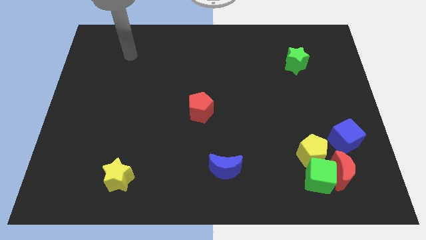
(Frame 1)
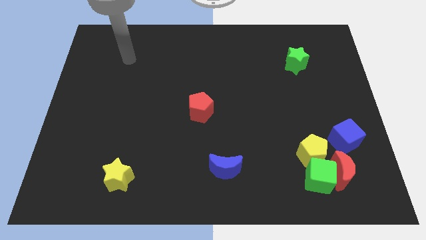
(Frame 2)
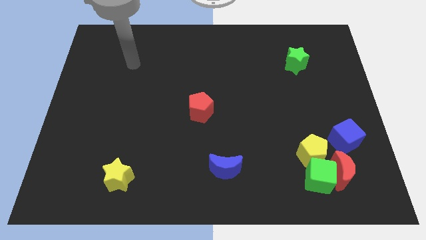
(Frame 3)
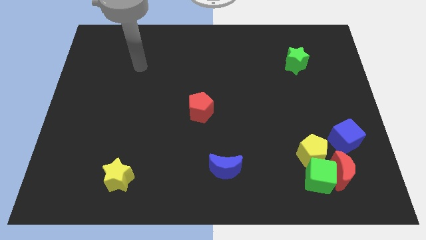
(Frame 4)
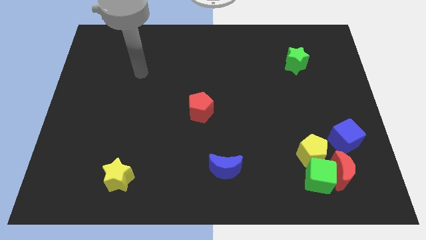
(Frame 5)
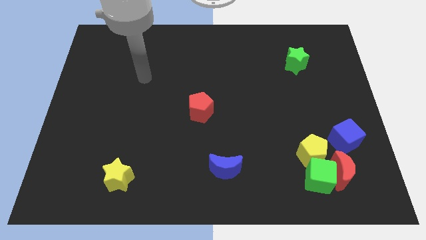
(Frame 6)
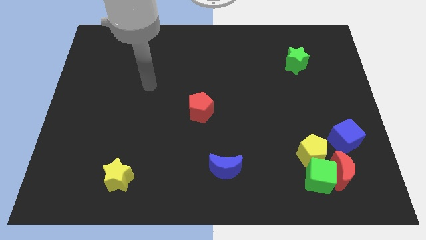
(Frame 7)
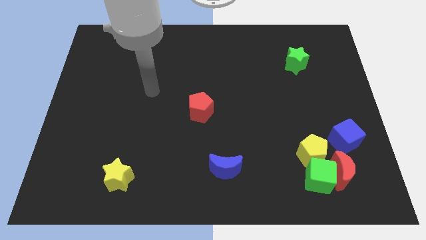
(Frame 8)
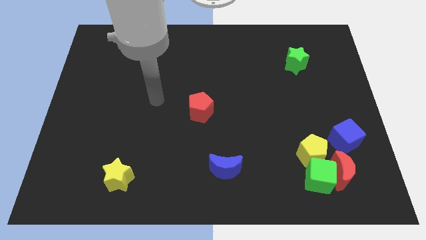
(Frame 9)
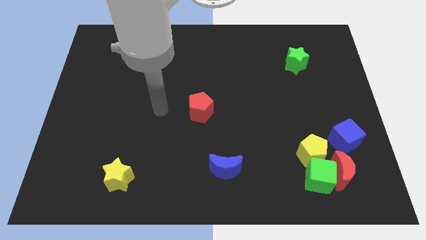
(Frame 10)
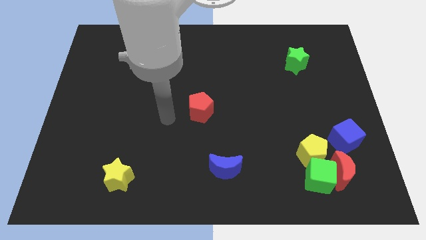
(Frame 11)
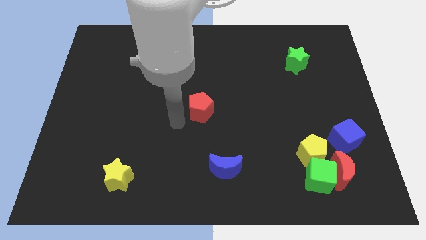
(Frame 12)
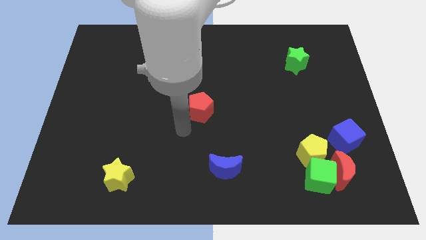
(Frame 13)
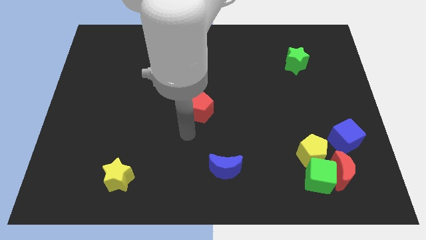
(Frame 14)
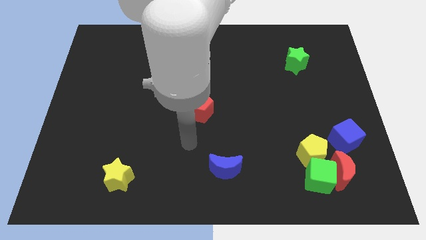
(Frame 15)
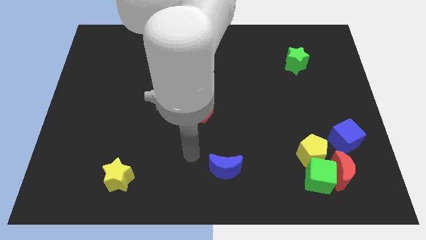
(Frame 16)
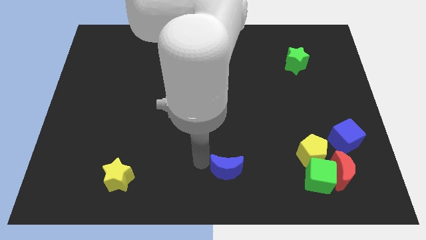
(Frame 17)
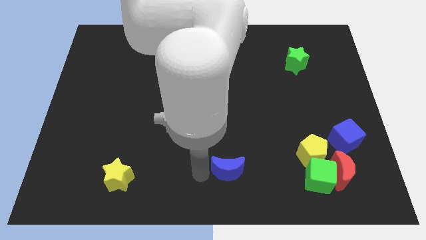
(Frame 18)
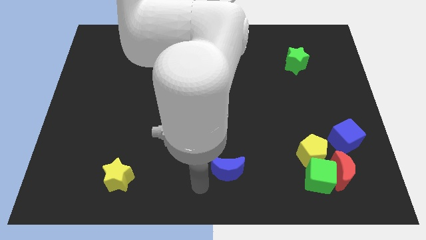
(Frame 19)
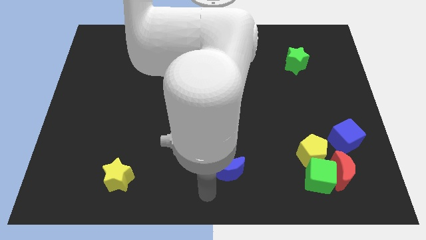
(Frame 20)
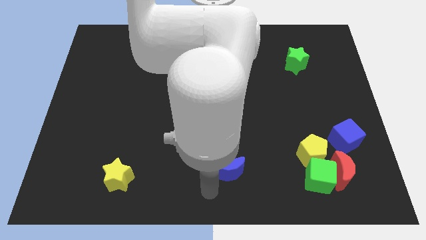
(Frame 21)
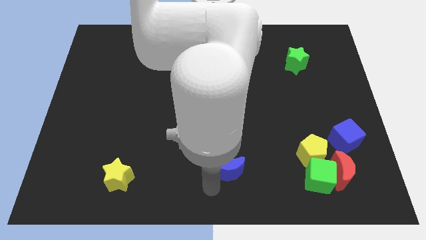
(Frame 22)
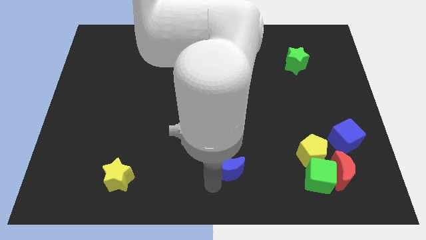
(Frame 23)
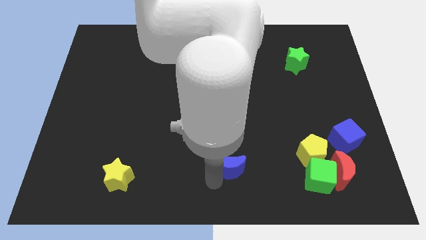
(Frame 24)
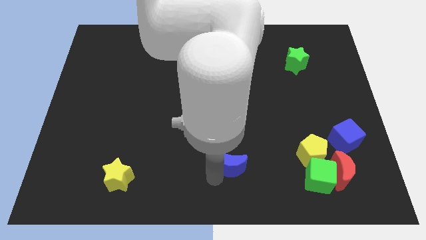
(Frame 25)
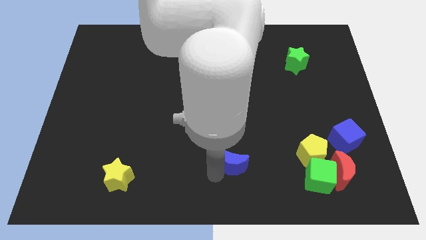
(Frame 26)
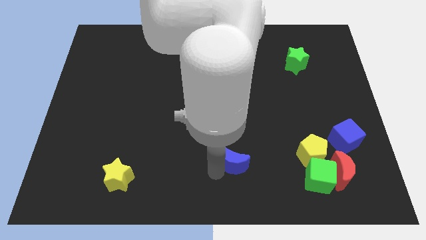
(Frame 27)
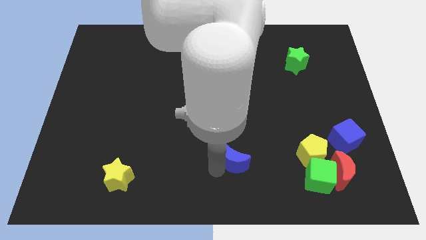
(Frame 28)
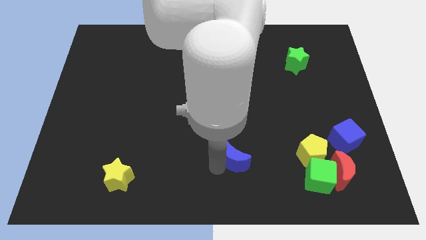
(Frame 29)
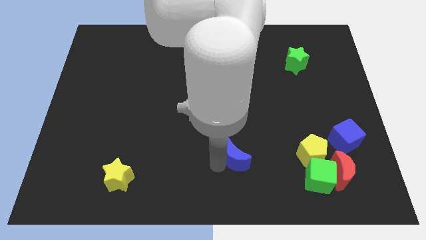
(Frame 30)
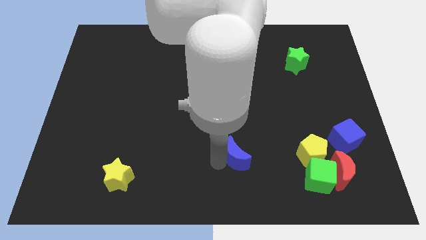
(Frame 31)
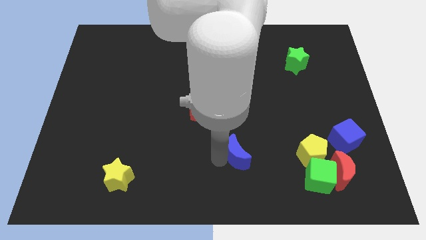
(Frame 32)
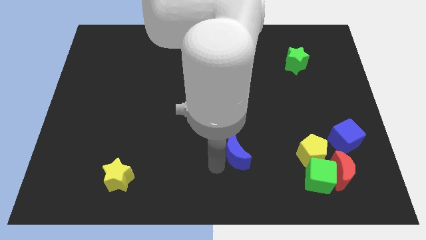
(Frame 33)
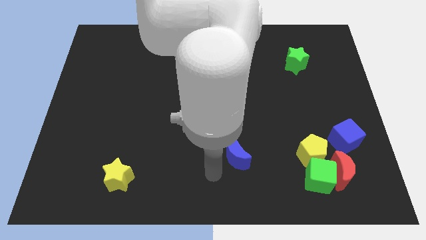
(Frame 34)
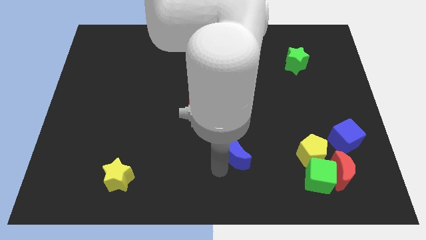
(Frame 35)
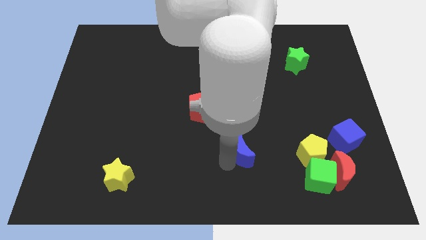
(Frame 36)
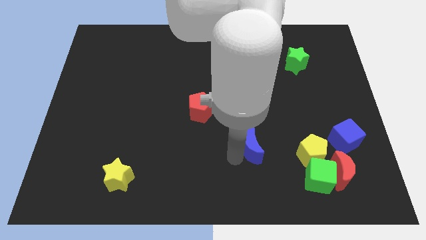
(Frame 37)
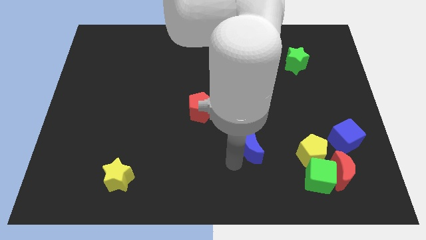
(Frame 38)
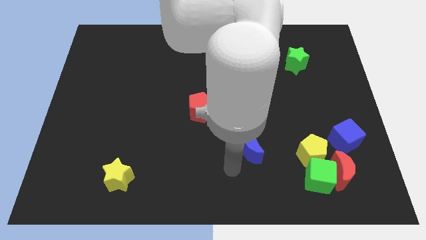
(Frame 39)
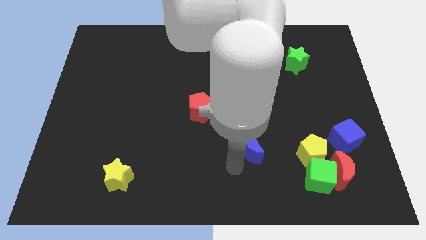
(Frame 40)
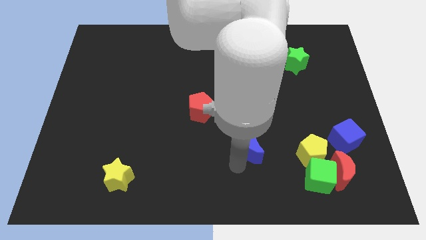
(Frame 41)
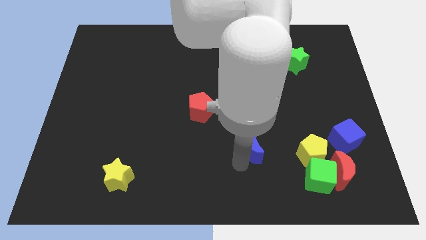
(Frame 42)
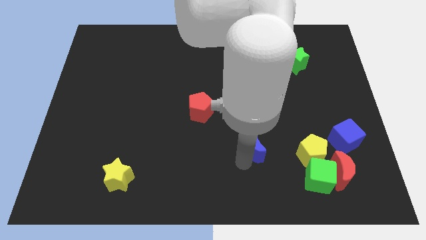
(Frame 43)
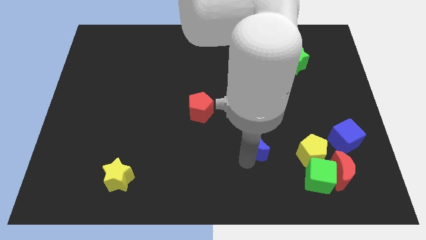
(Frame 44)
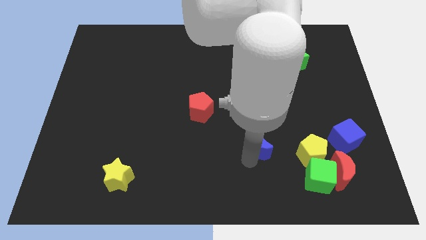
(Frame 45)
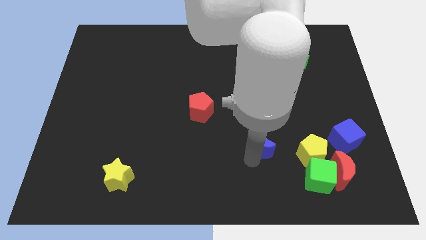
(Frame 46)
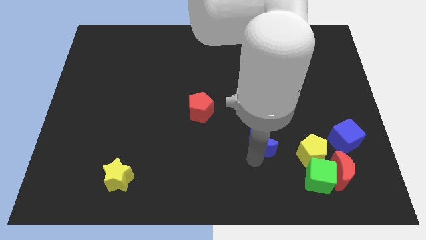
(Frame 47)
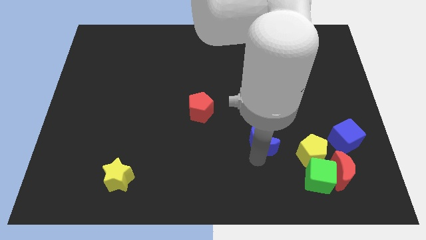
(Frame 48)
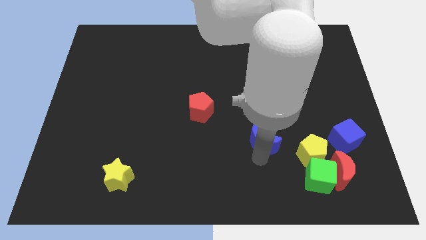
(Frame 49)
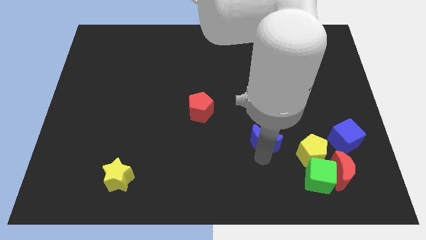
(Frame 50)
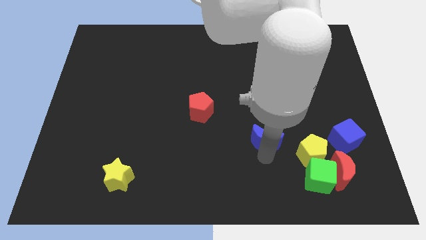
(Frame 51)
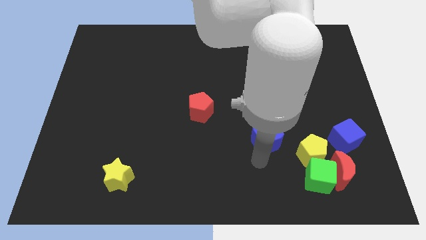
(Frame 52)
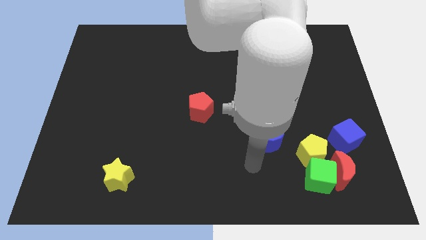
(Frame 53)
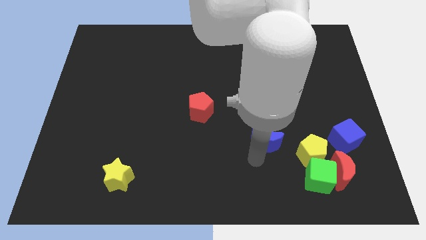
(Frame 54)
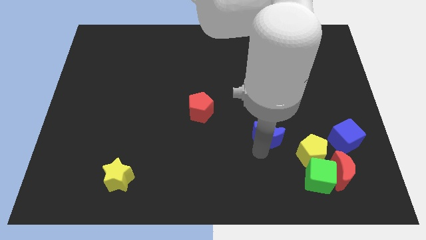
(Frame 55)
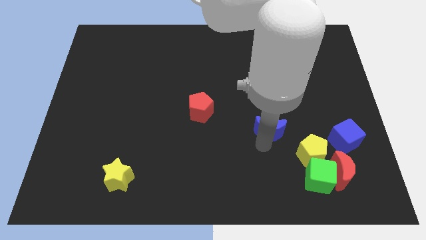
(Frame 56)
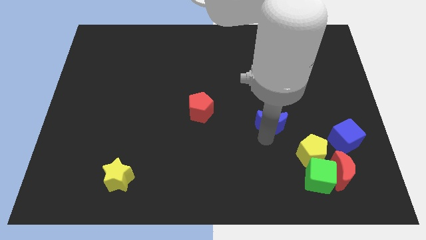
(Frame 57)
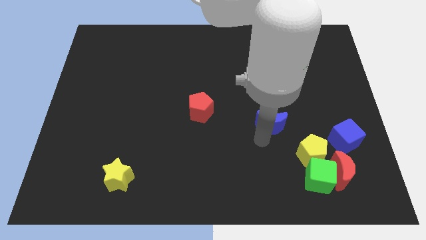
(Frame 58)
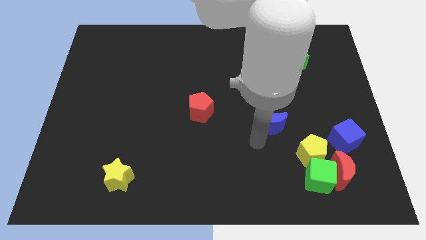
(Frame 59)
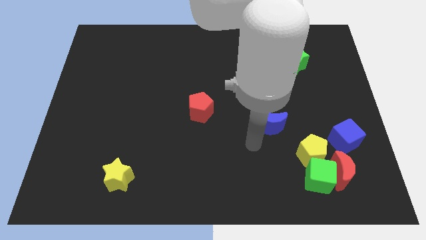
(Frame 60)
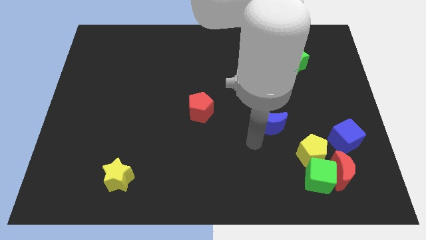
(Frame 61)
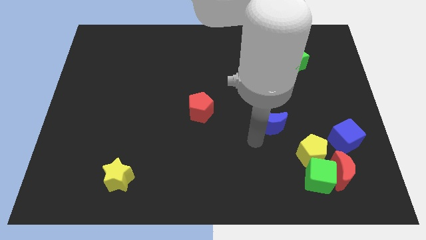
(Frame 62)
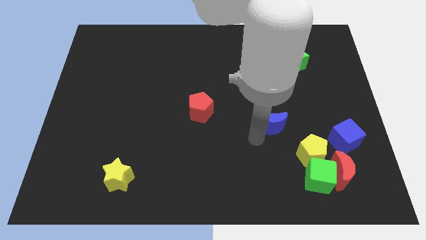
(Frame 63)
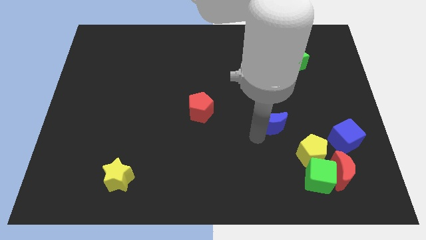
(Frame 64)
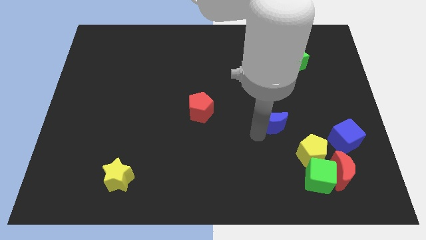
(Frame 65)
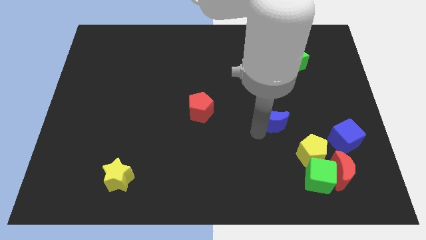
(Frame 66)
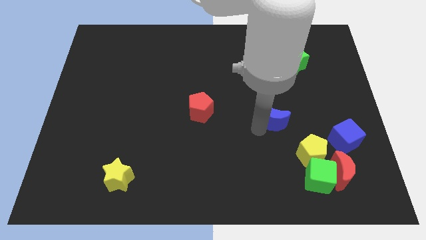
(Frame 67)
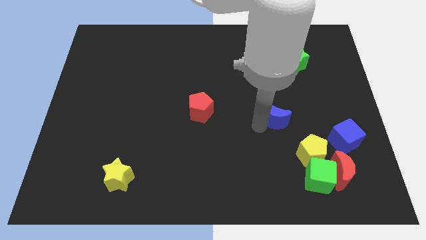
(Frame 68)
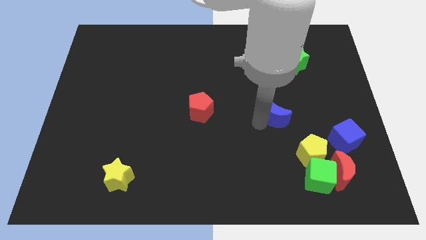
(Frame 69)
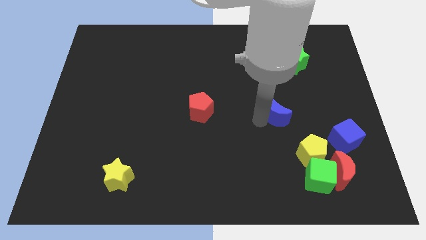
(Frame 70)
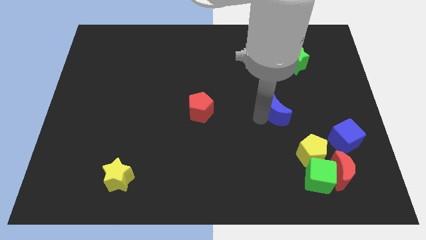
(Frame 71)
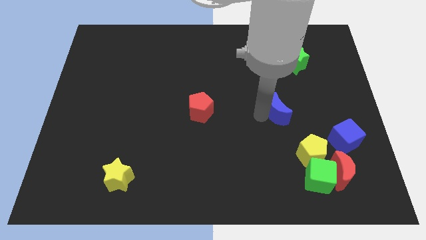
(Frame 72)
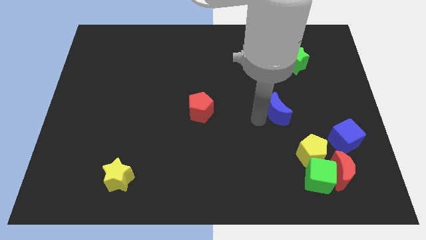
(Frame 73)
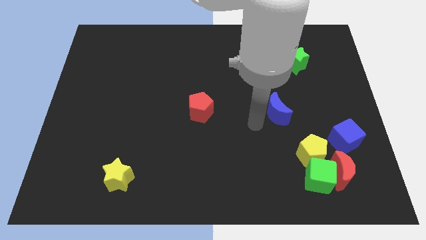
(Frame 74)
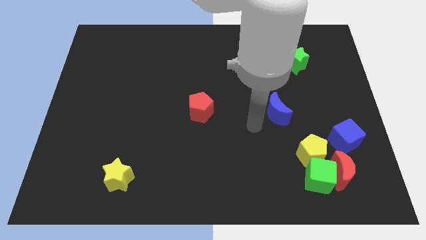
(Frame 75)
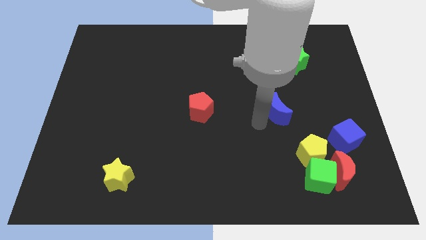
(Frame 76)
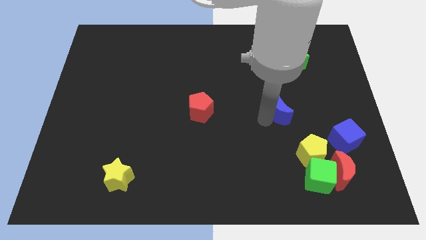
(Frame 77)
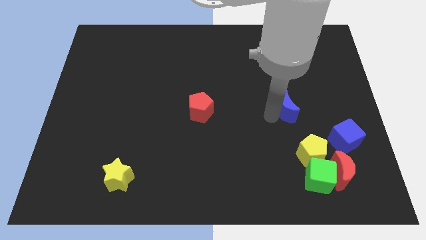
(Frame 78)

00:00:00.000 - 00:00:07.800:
move the blue moon upwards and right

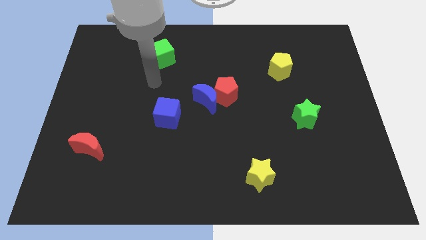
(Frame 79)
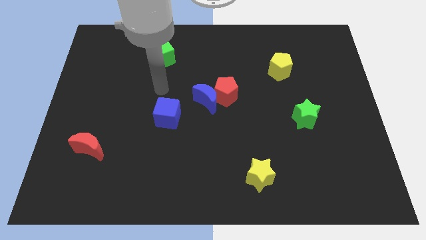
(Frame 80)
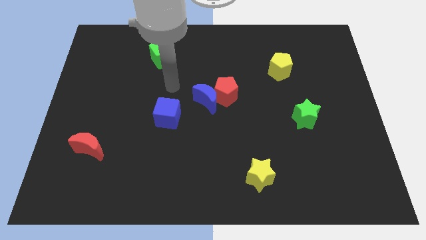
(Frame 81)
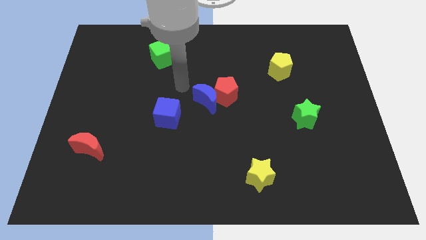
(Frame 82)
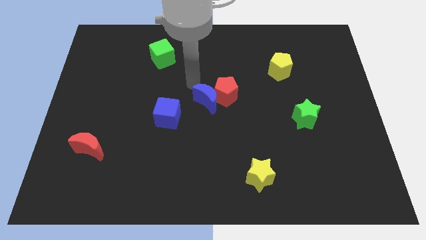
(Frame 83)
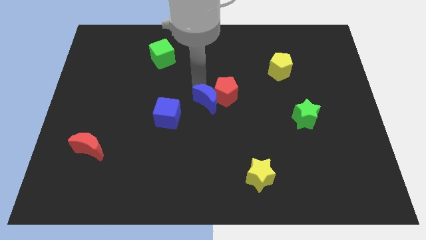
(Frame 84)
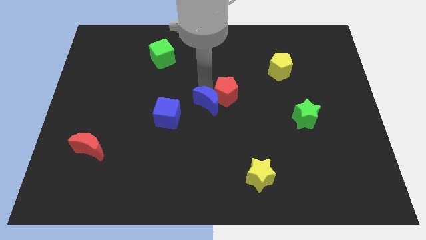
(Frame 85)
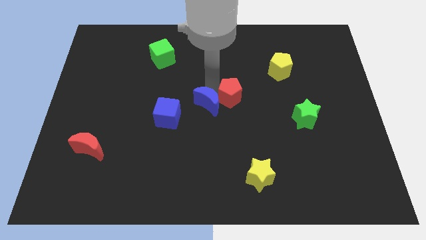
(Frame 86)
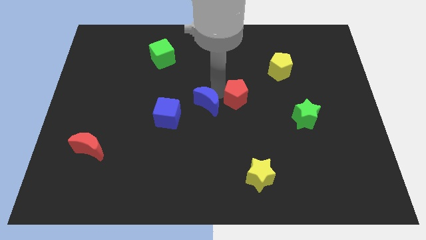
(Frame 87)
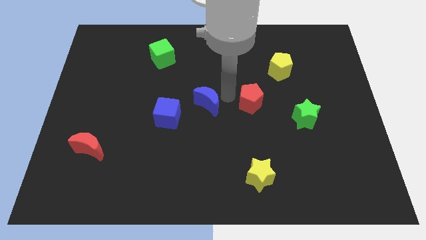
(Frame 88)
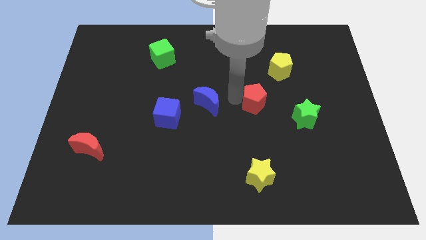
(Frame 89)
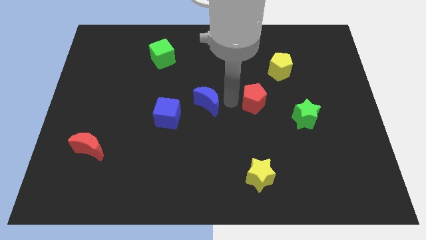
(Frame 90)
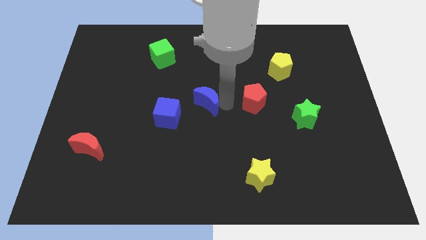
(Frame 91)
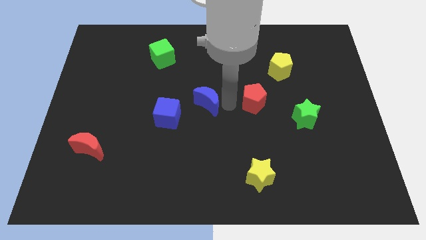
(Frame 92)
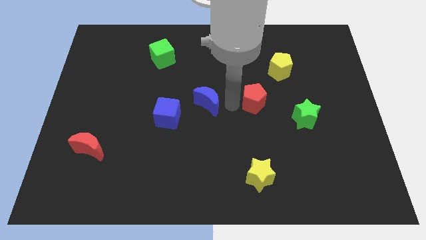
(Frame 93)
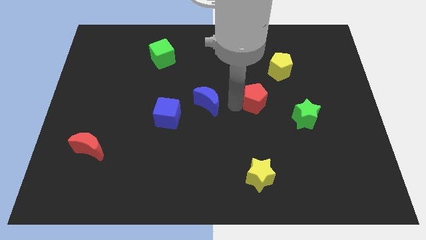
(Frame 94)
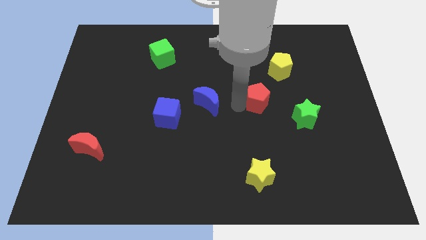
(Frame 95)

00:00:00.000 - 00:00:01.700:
slightly push the red pentagon to the right
